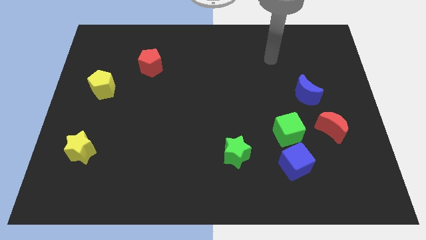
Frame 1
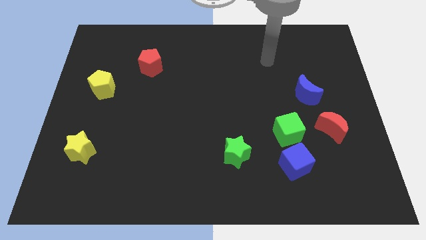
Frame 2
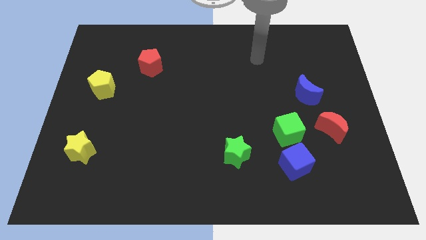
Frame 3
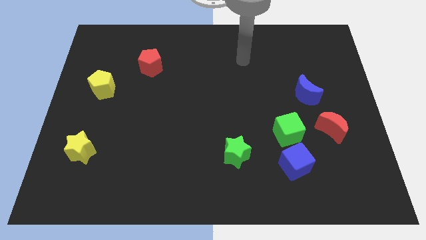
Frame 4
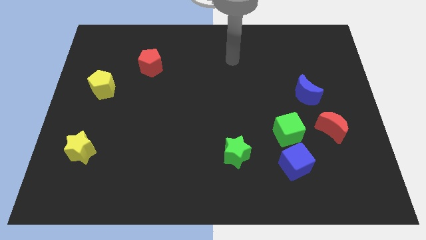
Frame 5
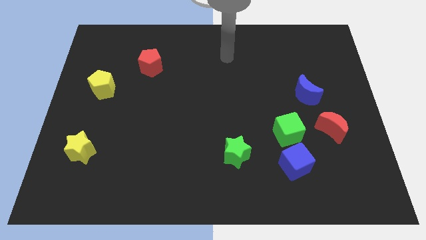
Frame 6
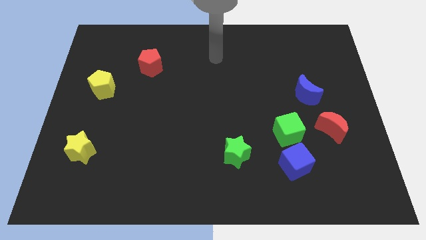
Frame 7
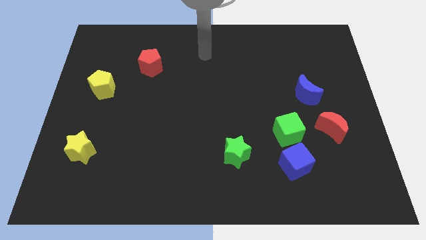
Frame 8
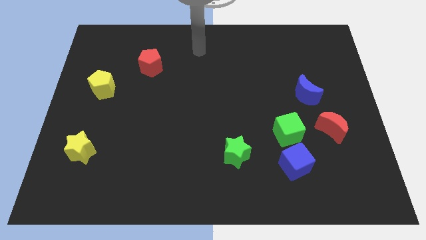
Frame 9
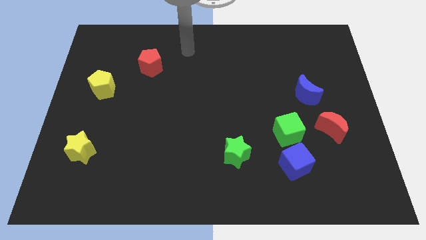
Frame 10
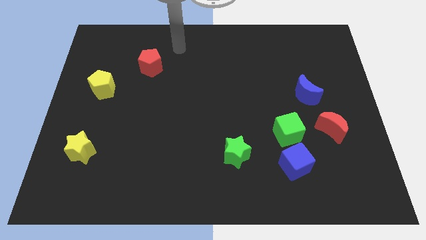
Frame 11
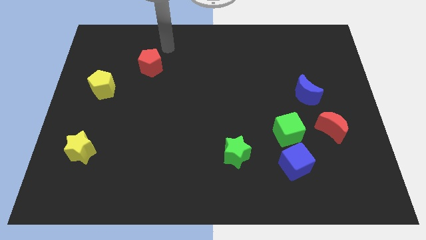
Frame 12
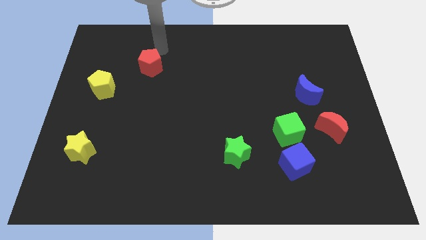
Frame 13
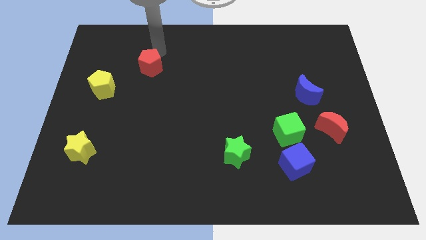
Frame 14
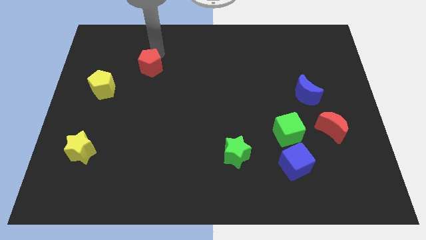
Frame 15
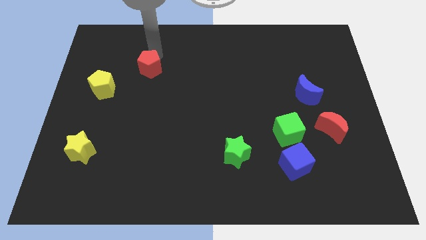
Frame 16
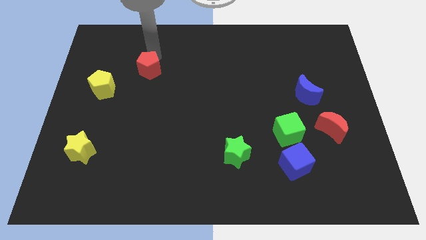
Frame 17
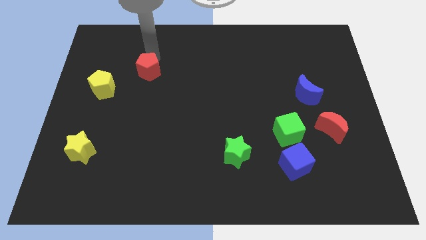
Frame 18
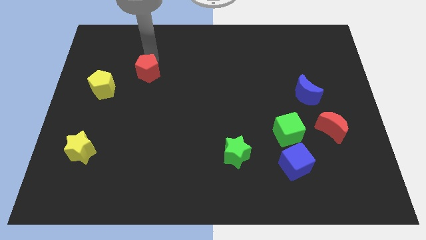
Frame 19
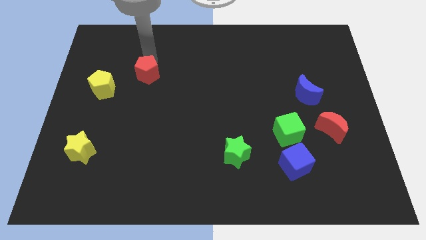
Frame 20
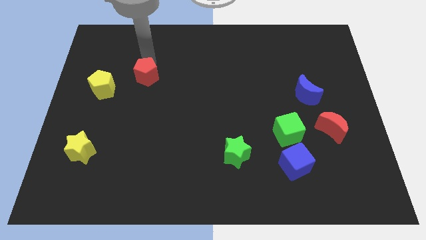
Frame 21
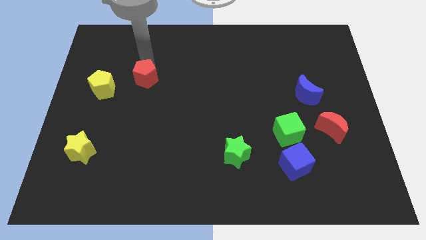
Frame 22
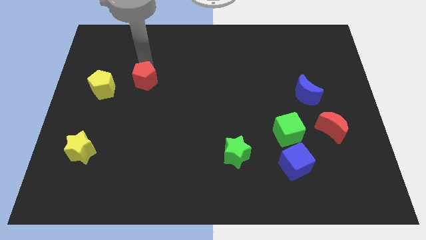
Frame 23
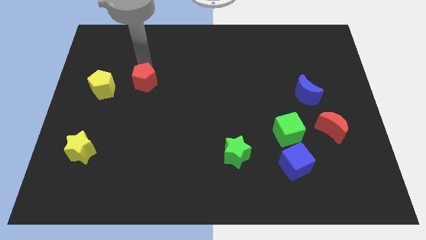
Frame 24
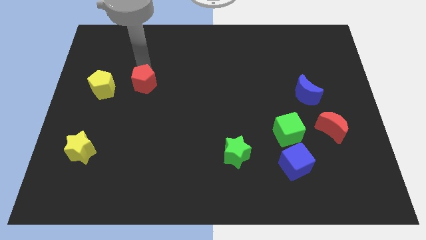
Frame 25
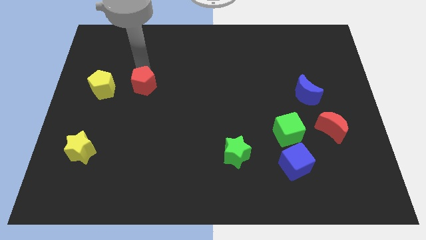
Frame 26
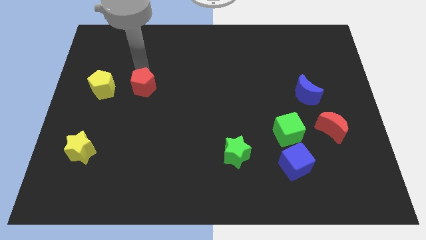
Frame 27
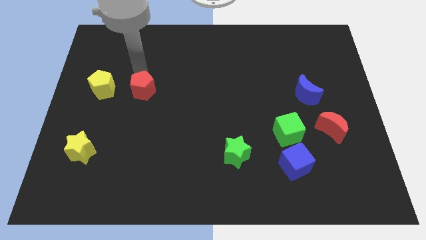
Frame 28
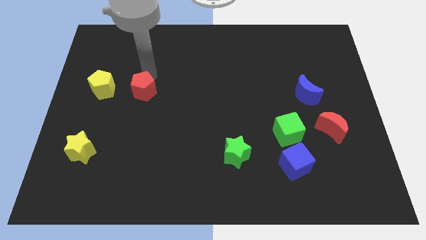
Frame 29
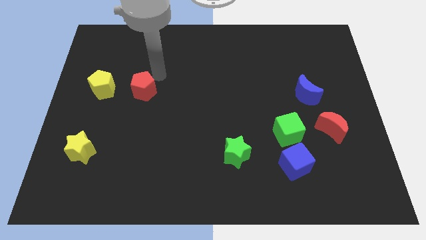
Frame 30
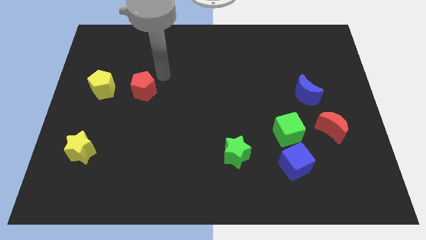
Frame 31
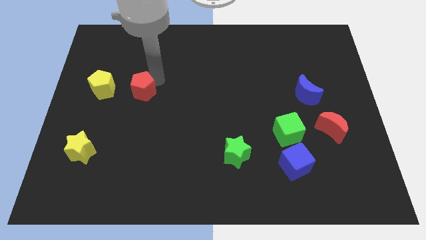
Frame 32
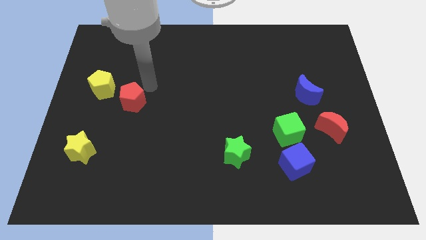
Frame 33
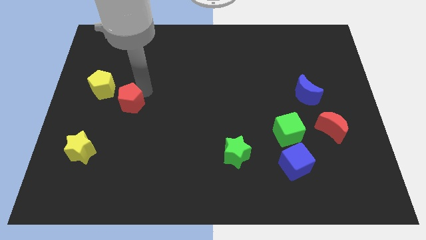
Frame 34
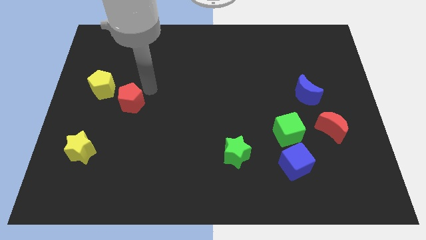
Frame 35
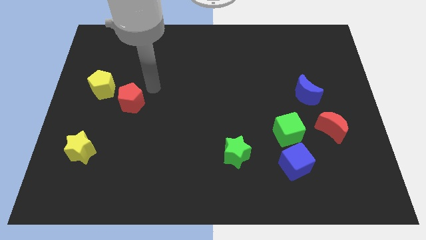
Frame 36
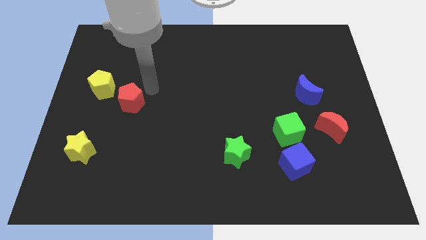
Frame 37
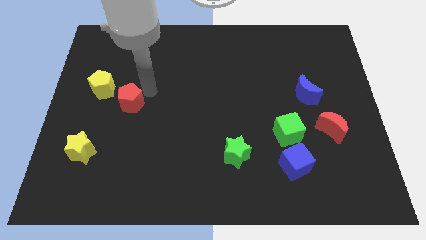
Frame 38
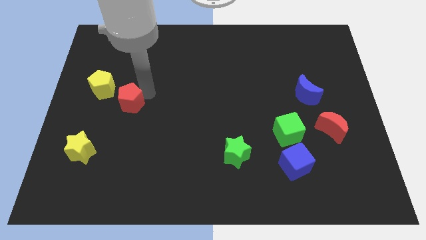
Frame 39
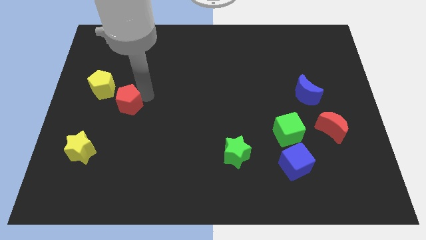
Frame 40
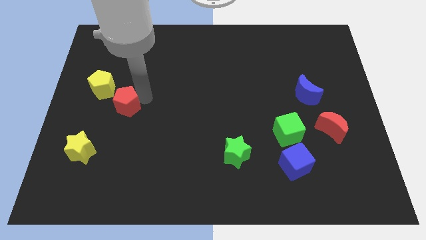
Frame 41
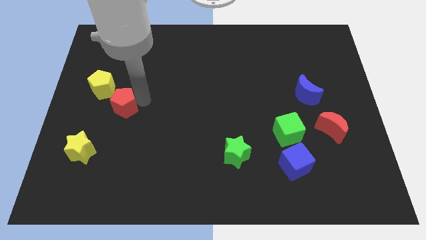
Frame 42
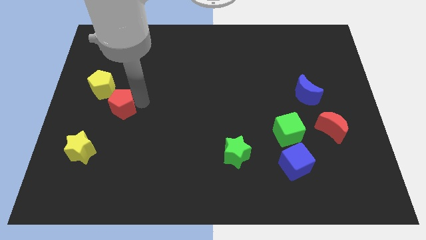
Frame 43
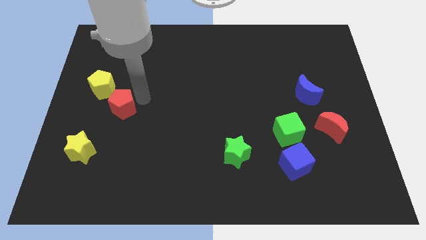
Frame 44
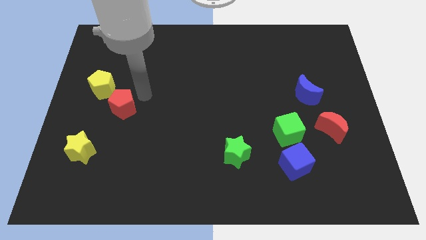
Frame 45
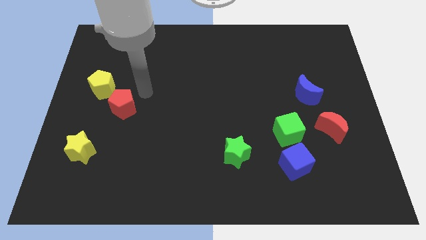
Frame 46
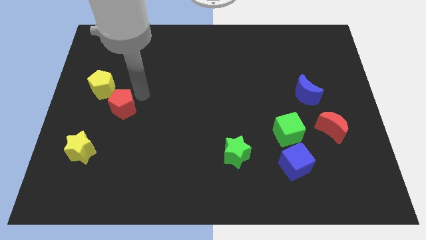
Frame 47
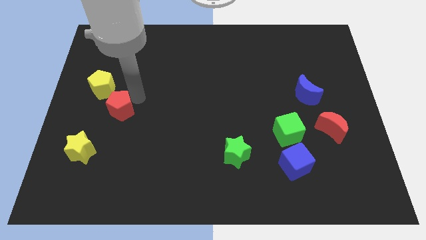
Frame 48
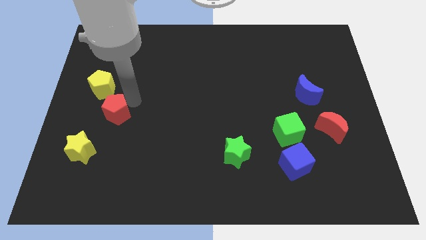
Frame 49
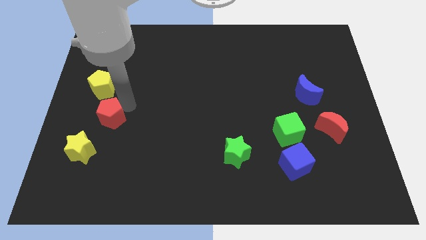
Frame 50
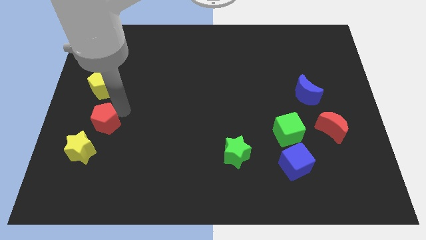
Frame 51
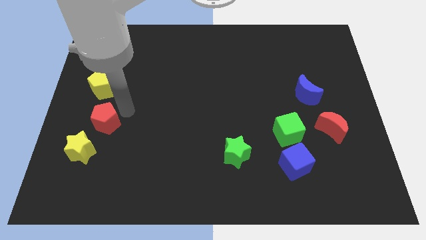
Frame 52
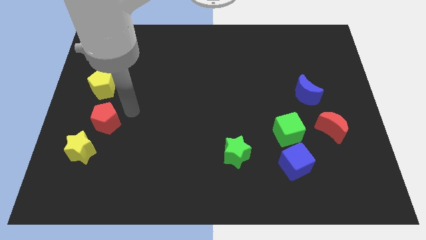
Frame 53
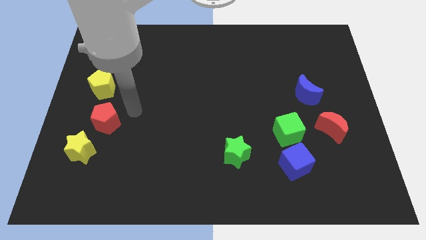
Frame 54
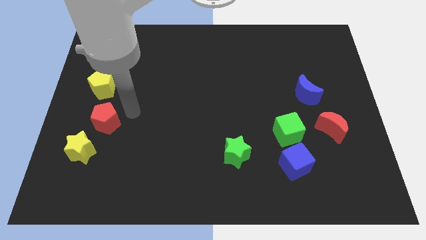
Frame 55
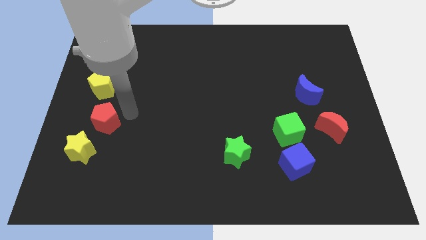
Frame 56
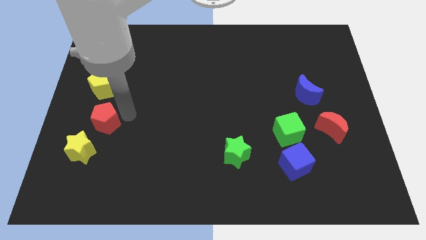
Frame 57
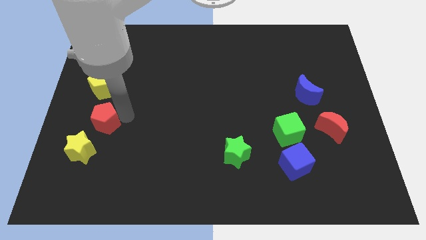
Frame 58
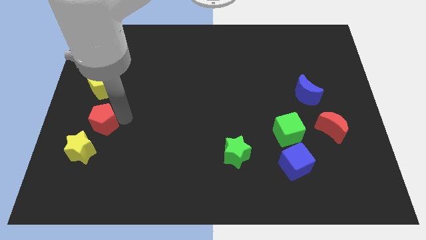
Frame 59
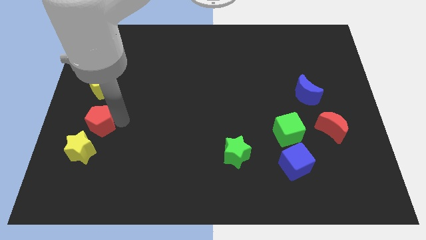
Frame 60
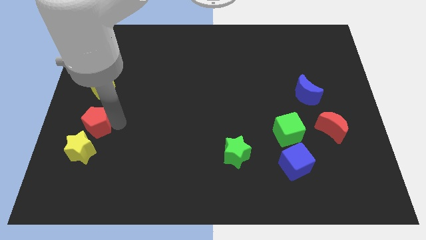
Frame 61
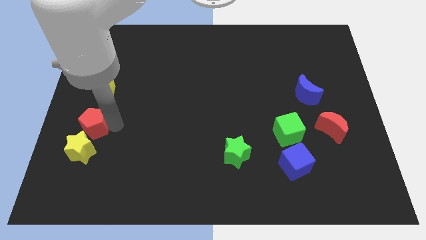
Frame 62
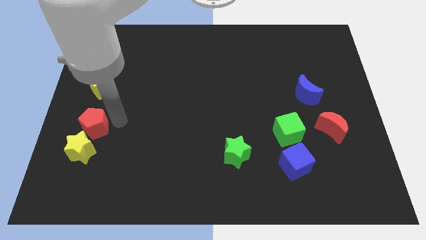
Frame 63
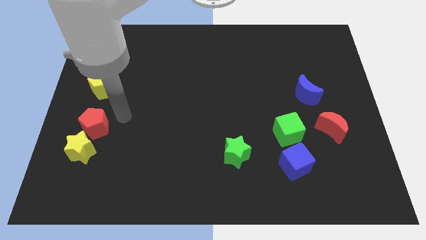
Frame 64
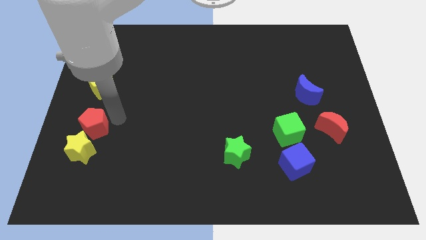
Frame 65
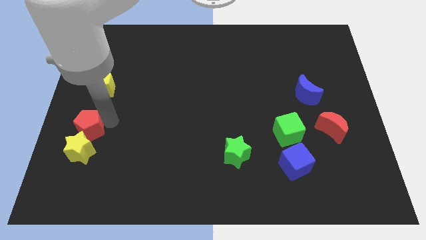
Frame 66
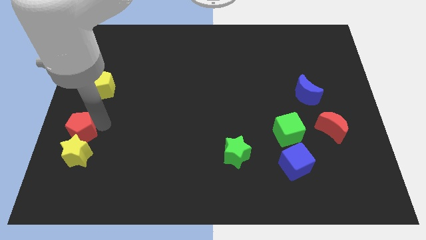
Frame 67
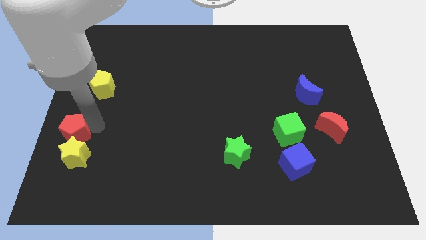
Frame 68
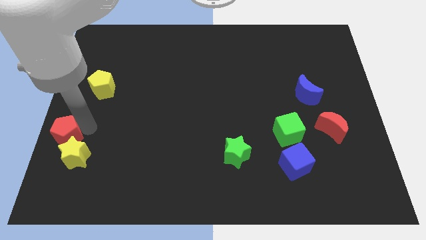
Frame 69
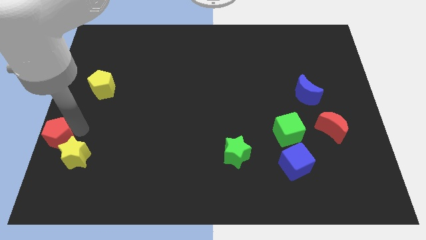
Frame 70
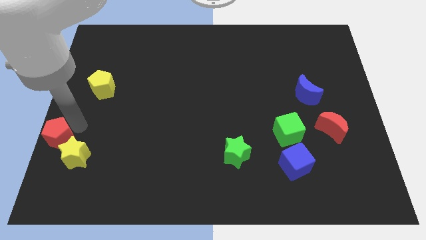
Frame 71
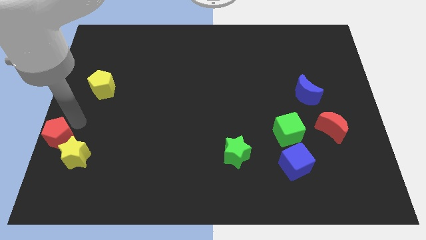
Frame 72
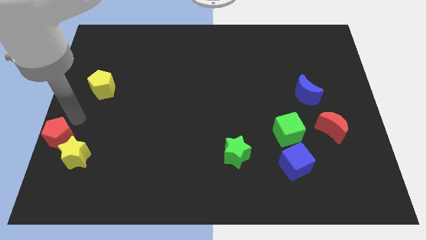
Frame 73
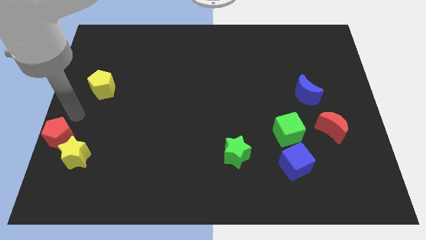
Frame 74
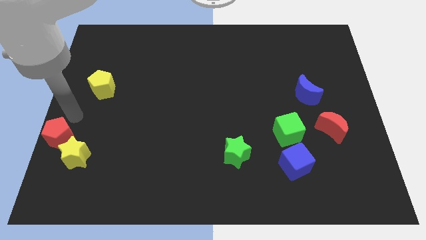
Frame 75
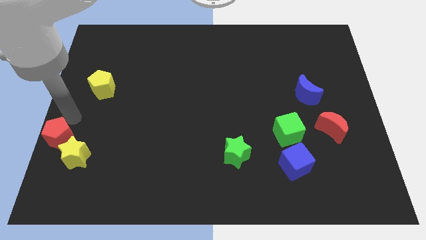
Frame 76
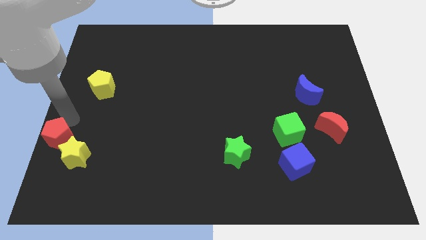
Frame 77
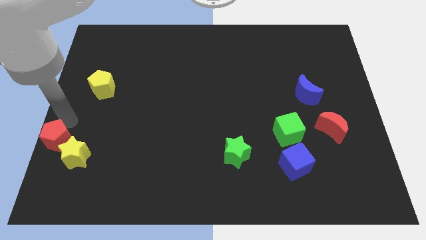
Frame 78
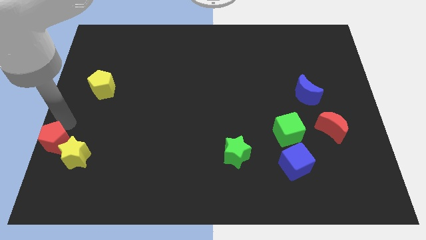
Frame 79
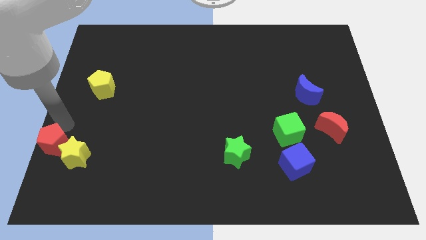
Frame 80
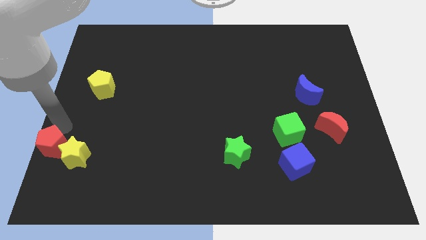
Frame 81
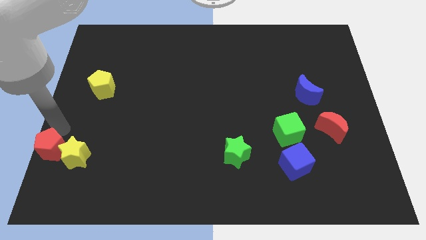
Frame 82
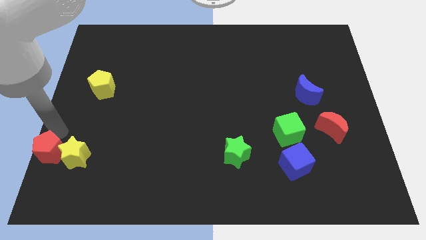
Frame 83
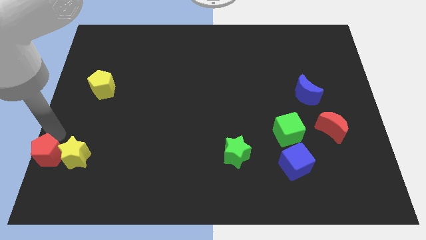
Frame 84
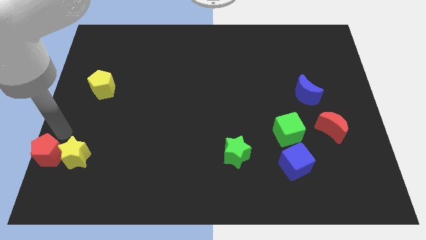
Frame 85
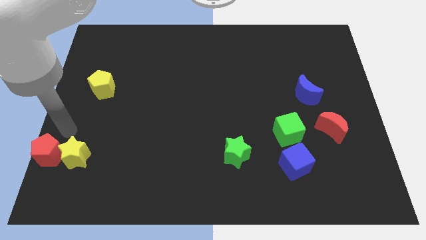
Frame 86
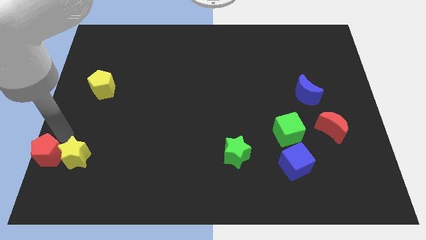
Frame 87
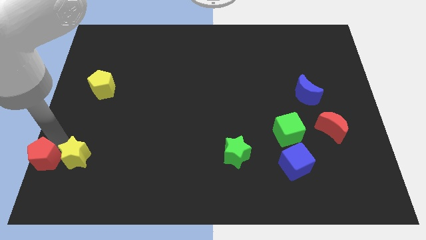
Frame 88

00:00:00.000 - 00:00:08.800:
push the red pentagon to the lower left corner
